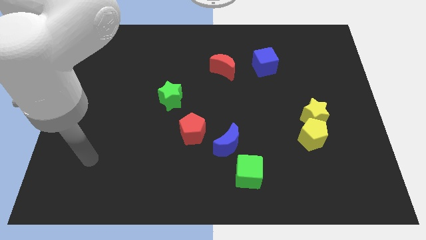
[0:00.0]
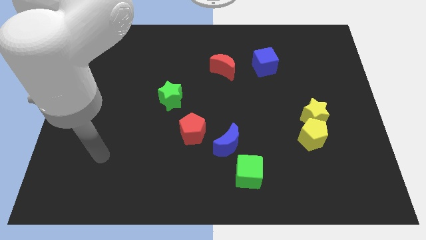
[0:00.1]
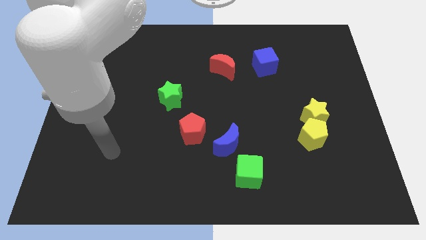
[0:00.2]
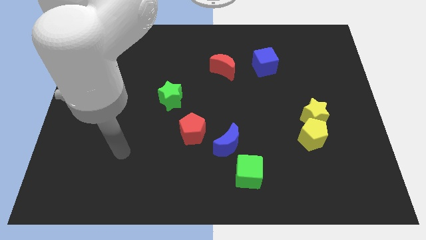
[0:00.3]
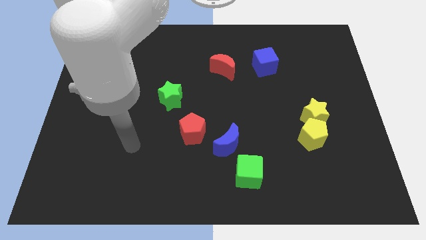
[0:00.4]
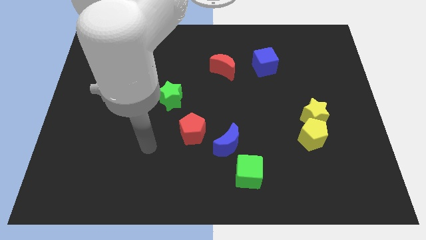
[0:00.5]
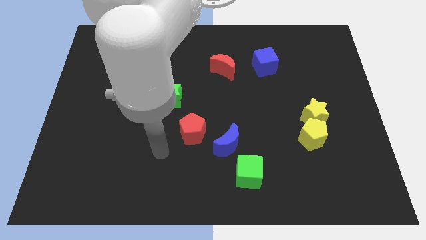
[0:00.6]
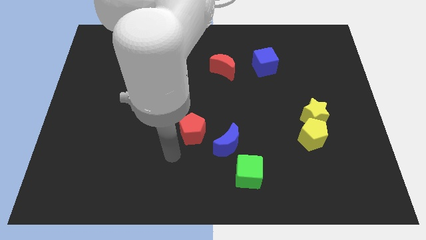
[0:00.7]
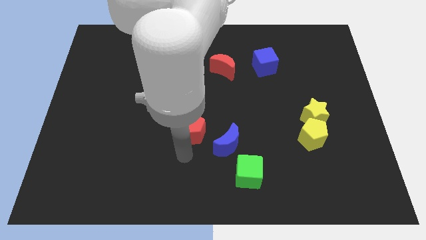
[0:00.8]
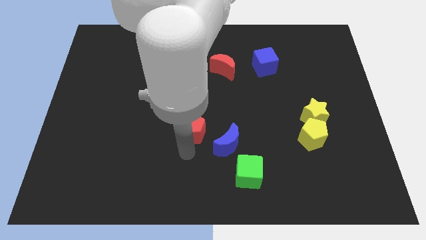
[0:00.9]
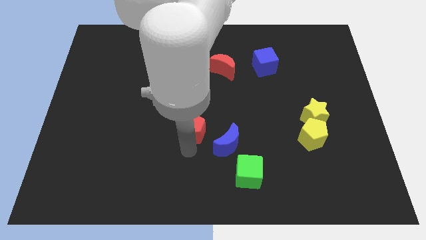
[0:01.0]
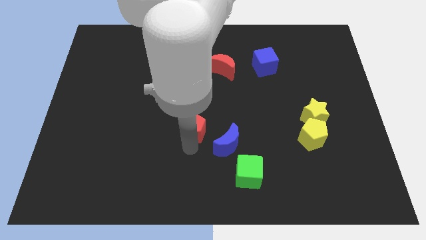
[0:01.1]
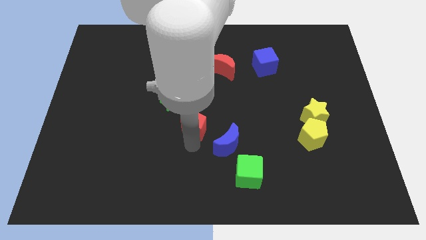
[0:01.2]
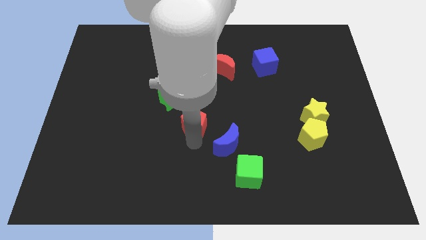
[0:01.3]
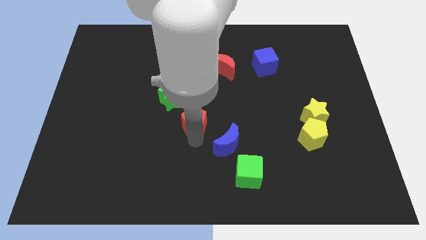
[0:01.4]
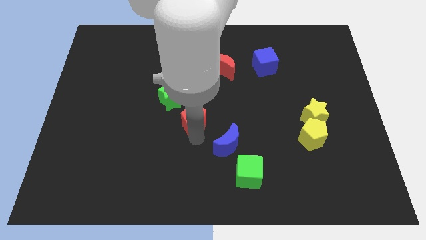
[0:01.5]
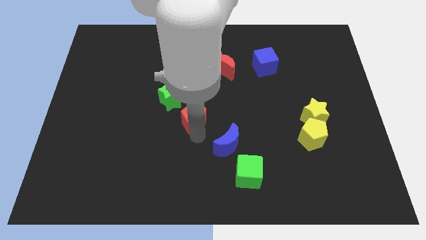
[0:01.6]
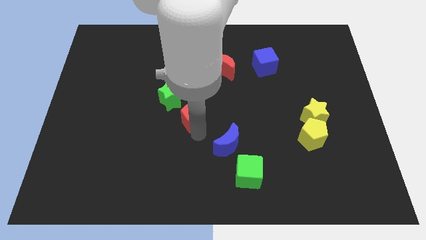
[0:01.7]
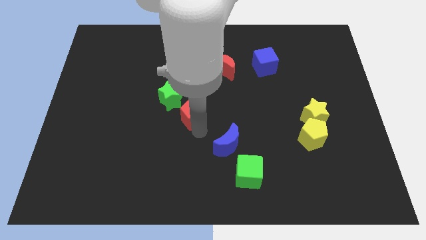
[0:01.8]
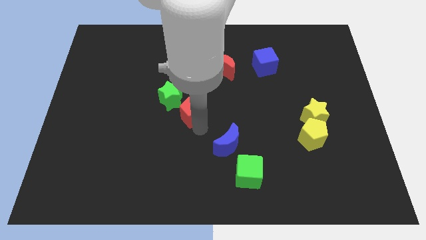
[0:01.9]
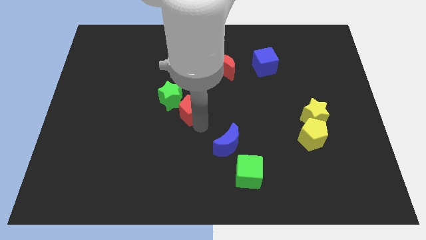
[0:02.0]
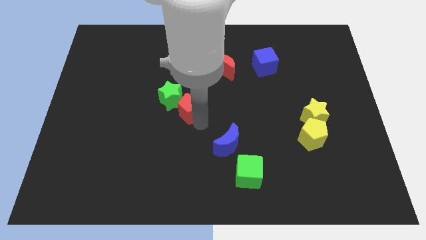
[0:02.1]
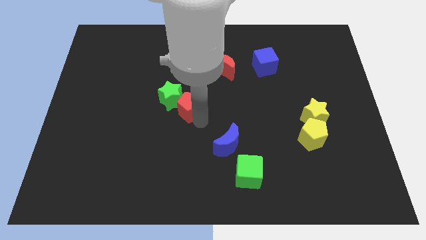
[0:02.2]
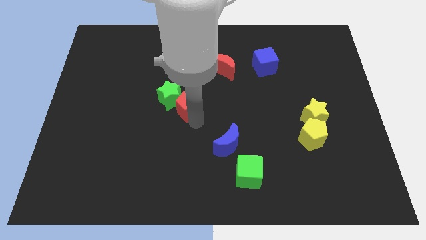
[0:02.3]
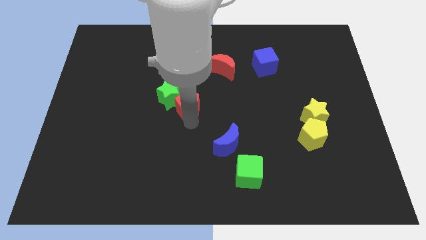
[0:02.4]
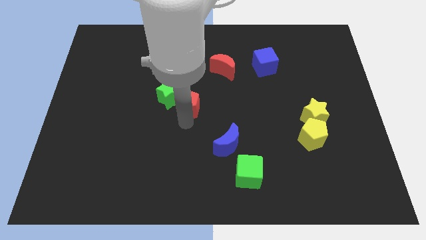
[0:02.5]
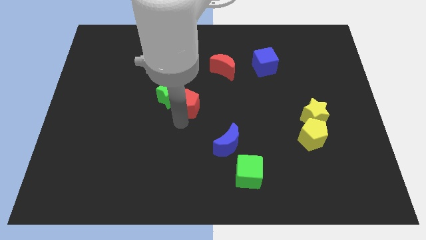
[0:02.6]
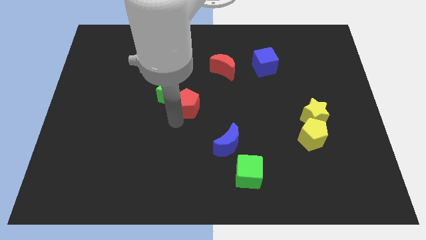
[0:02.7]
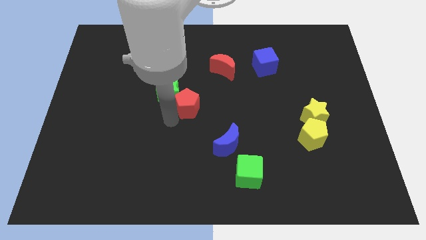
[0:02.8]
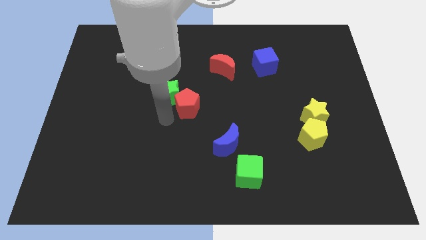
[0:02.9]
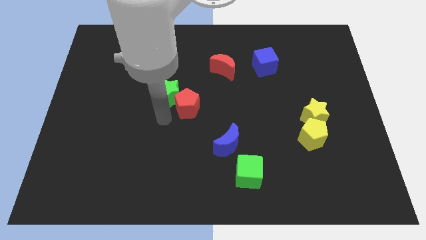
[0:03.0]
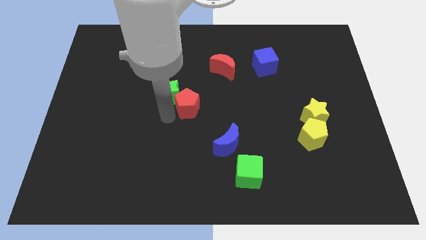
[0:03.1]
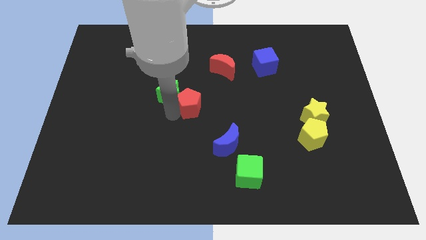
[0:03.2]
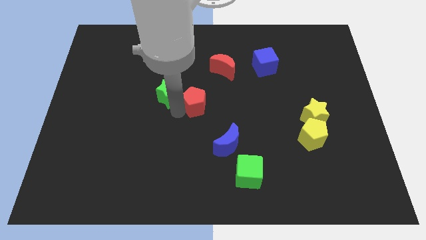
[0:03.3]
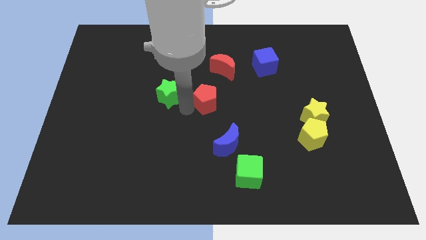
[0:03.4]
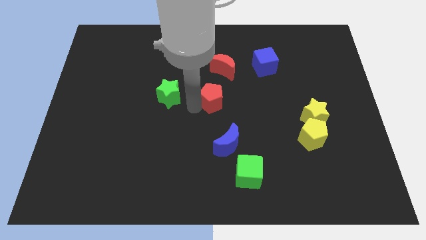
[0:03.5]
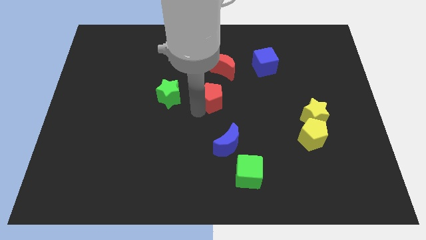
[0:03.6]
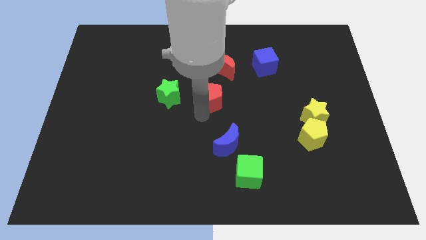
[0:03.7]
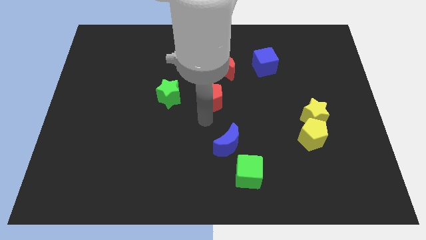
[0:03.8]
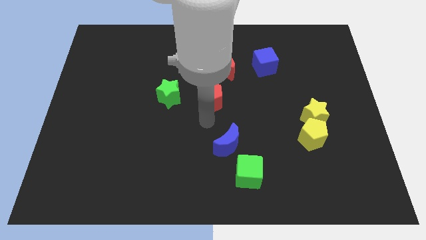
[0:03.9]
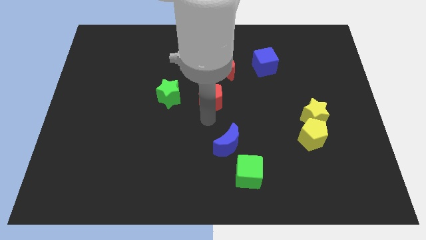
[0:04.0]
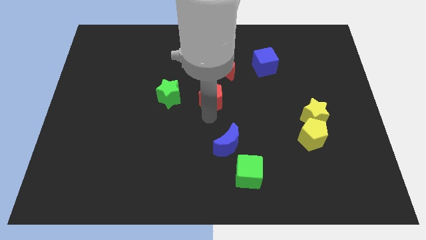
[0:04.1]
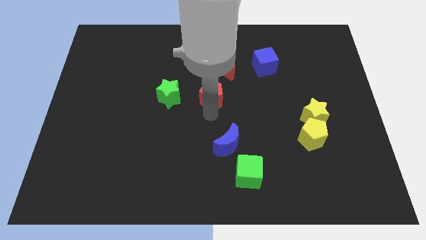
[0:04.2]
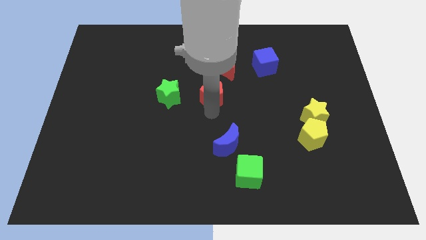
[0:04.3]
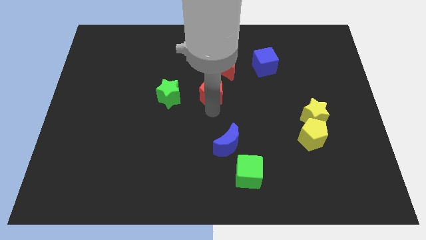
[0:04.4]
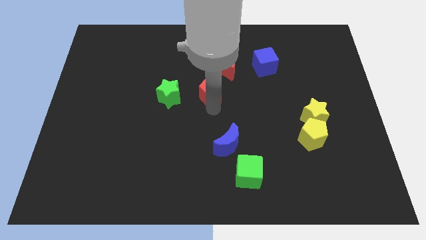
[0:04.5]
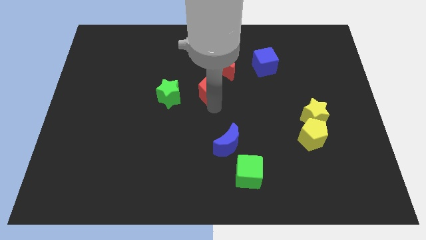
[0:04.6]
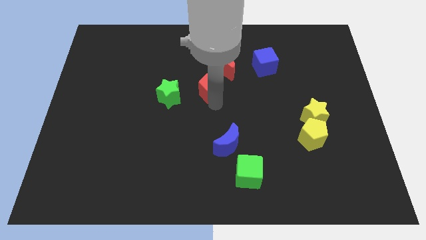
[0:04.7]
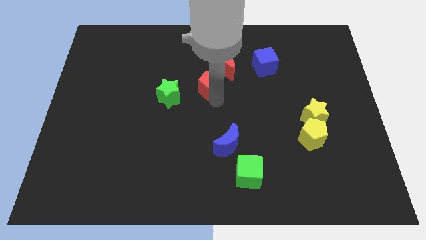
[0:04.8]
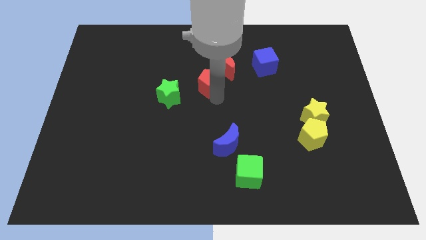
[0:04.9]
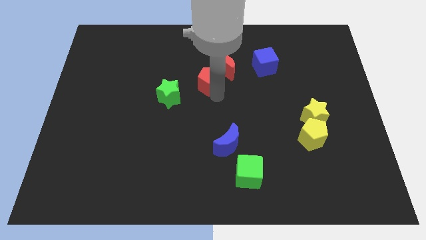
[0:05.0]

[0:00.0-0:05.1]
slide the red pentagon towards the red moon

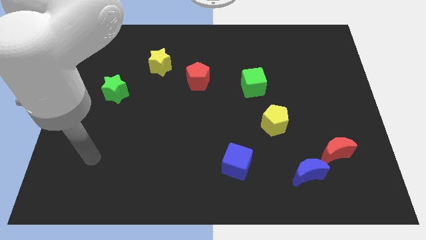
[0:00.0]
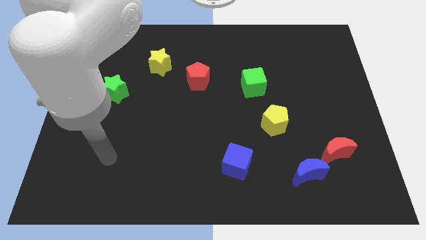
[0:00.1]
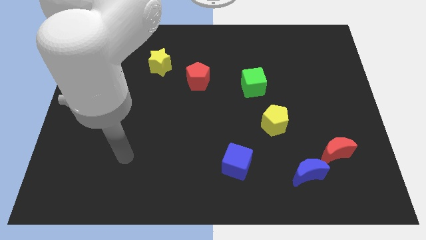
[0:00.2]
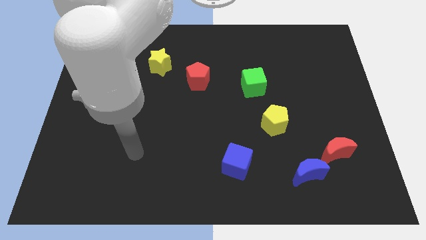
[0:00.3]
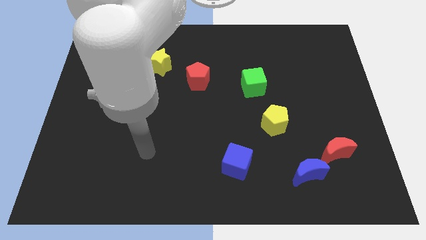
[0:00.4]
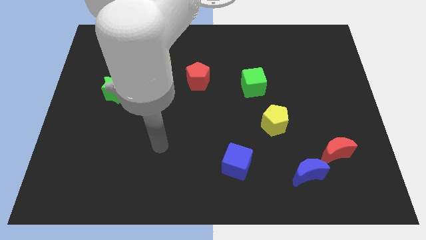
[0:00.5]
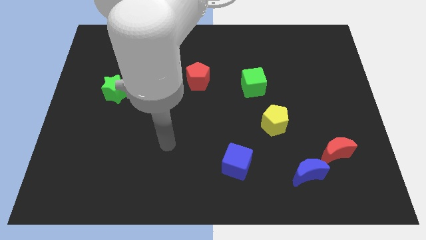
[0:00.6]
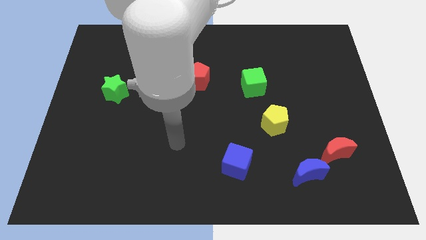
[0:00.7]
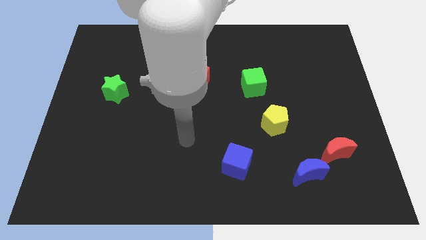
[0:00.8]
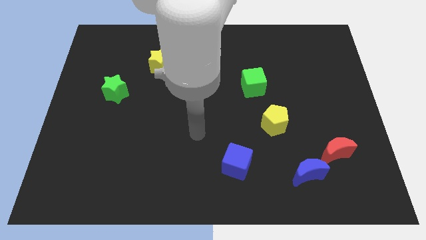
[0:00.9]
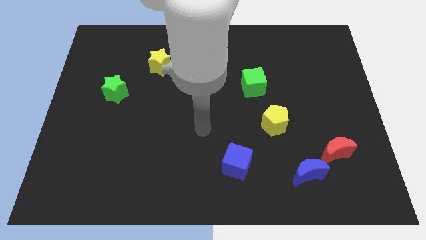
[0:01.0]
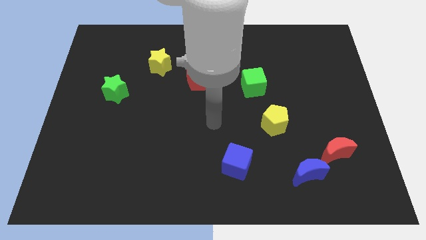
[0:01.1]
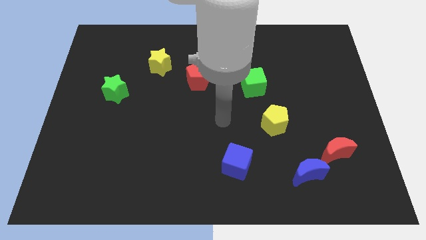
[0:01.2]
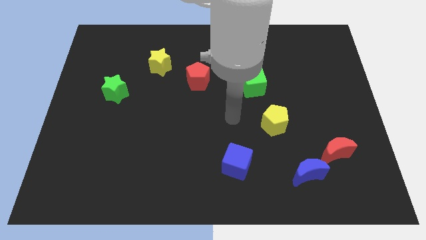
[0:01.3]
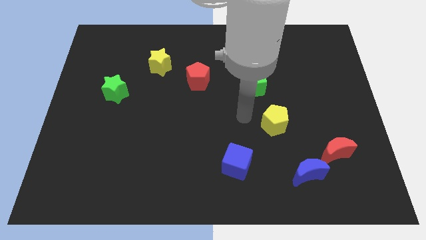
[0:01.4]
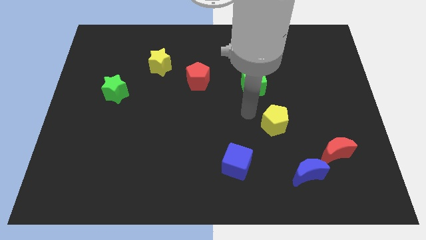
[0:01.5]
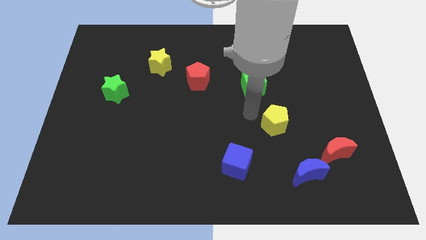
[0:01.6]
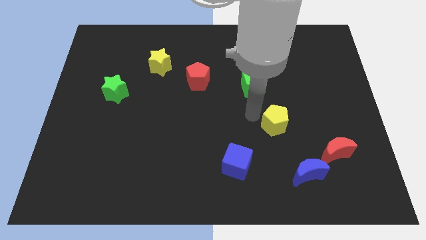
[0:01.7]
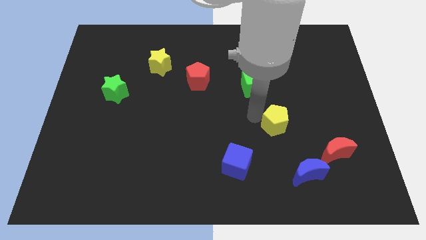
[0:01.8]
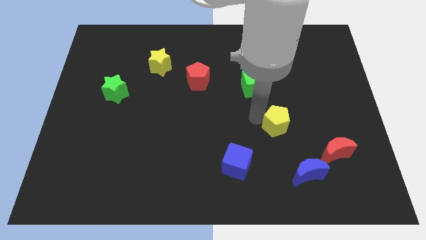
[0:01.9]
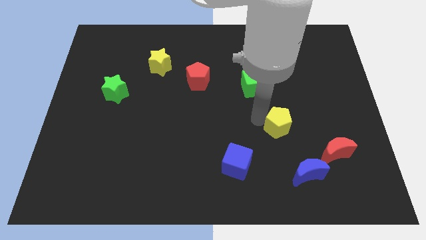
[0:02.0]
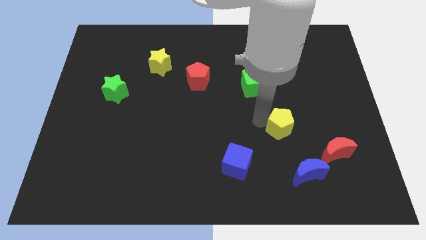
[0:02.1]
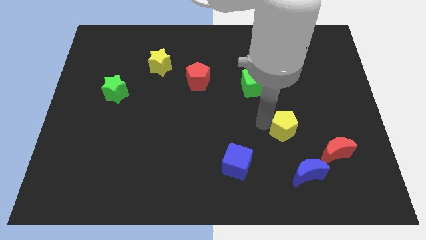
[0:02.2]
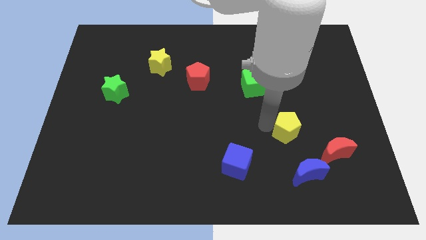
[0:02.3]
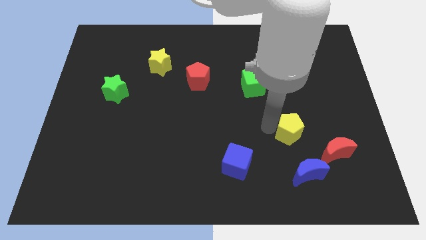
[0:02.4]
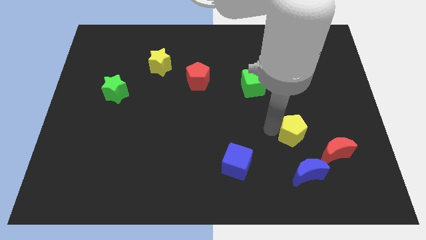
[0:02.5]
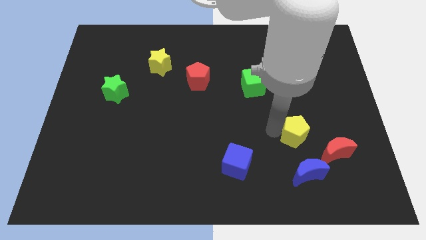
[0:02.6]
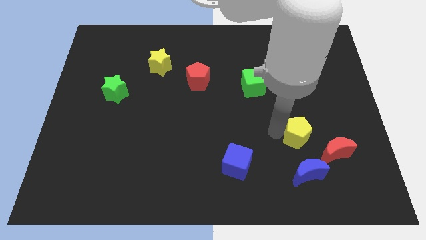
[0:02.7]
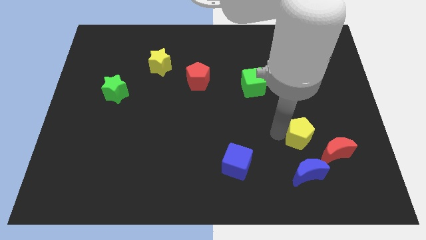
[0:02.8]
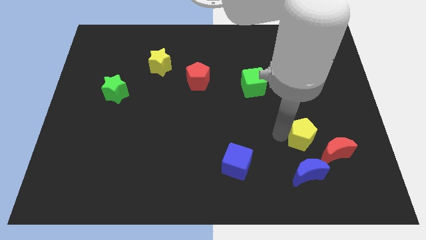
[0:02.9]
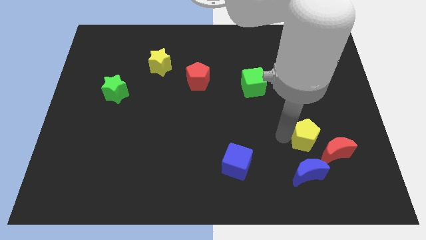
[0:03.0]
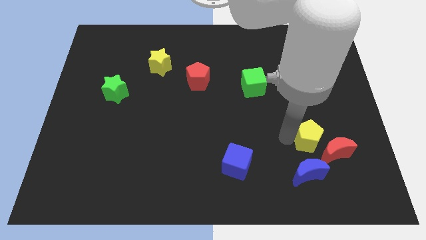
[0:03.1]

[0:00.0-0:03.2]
push the yellow pentagon towards the red moon
